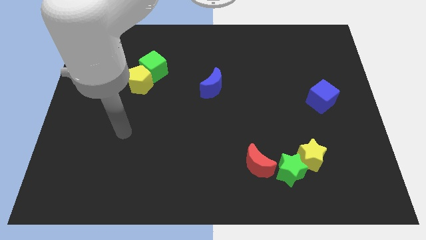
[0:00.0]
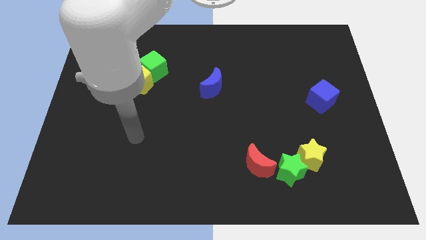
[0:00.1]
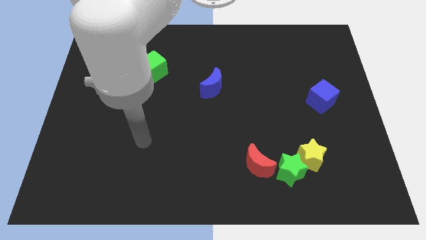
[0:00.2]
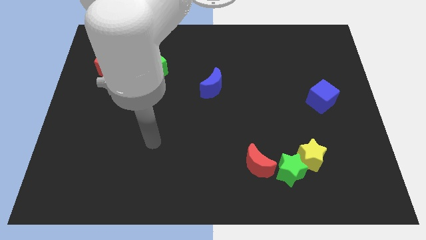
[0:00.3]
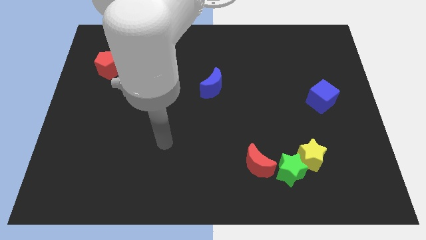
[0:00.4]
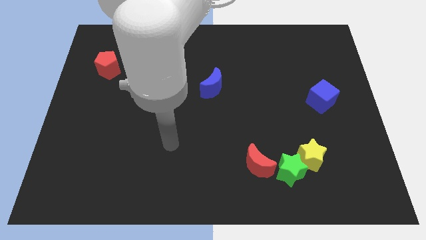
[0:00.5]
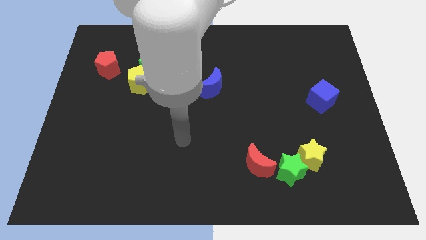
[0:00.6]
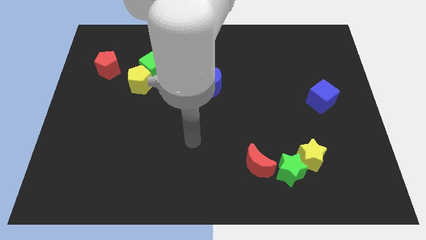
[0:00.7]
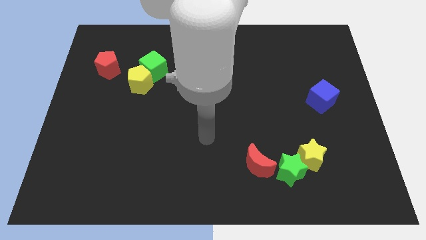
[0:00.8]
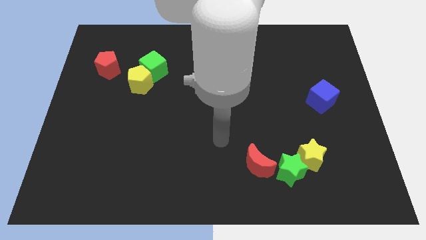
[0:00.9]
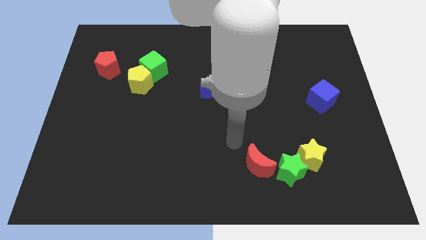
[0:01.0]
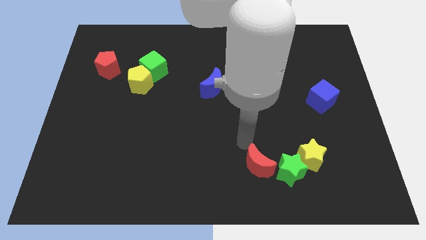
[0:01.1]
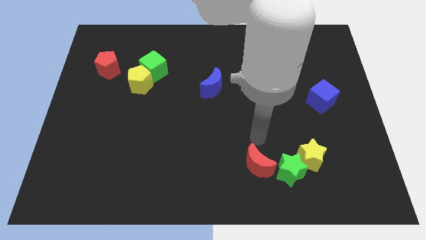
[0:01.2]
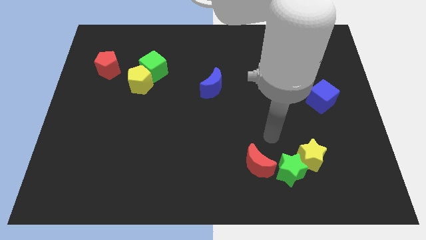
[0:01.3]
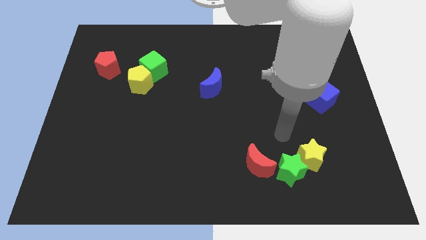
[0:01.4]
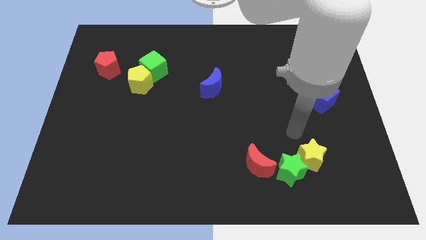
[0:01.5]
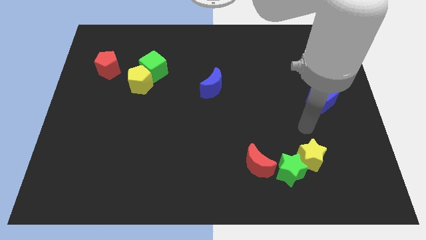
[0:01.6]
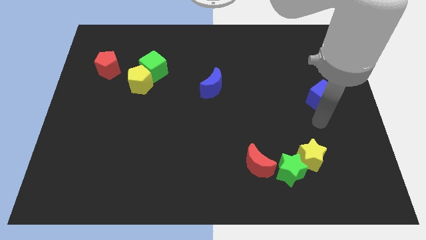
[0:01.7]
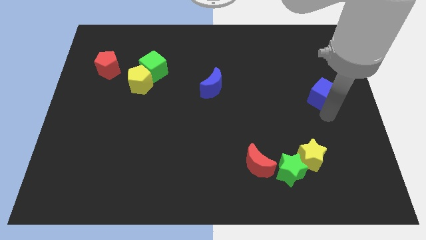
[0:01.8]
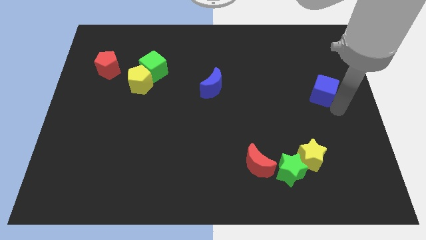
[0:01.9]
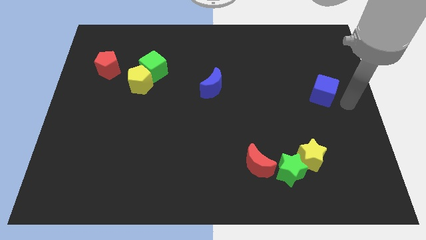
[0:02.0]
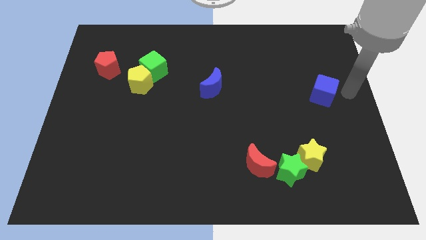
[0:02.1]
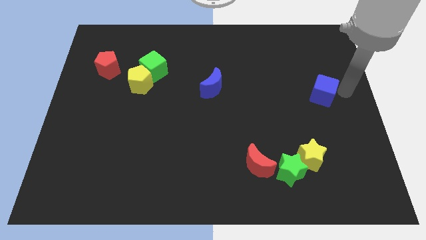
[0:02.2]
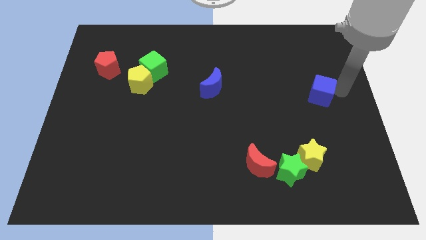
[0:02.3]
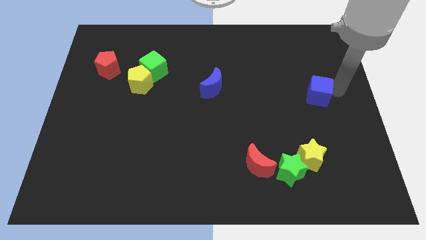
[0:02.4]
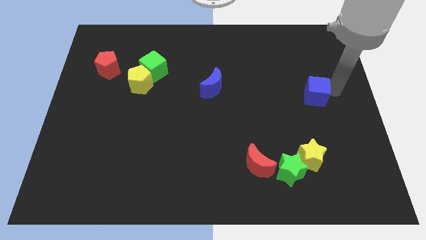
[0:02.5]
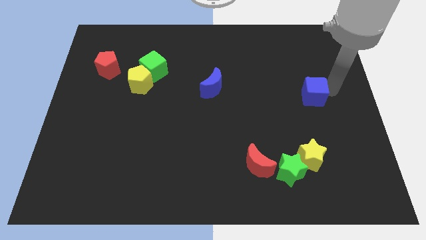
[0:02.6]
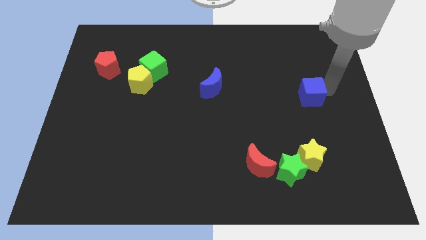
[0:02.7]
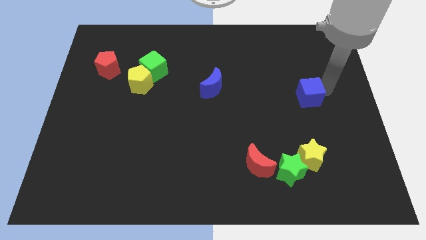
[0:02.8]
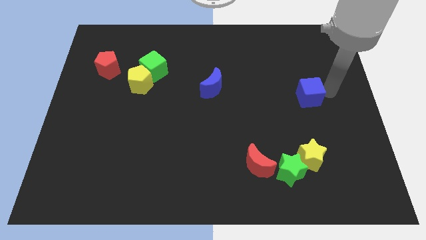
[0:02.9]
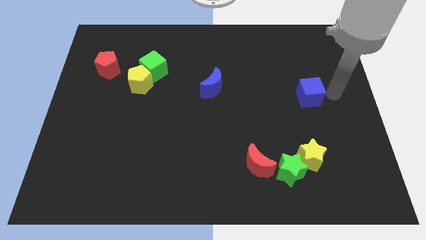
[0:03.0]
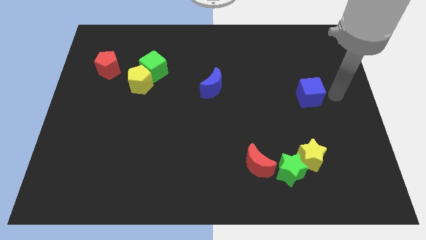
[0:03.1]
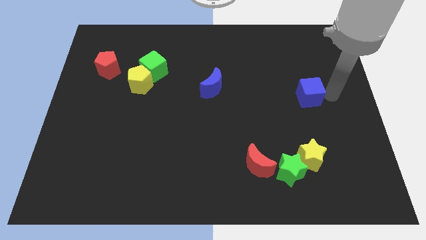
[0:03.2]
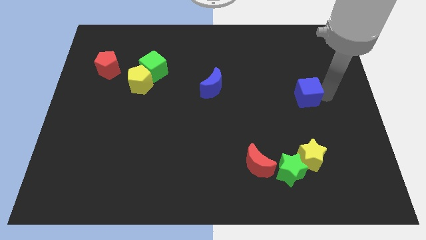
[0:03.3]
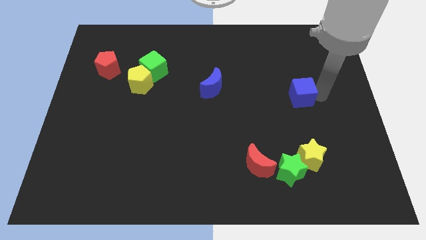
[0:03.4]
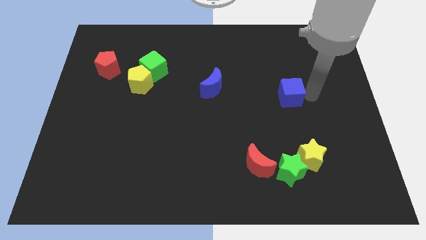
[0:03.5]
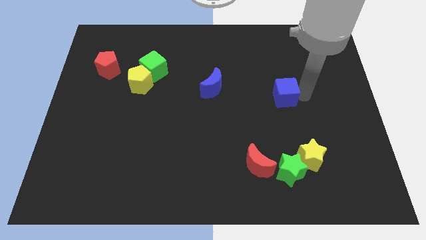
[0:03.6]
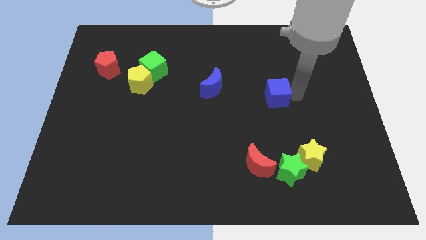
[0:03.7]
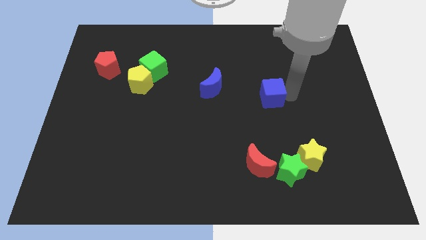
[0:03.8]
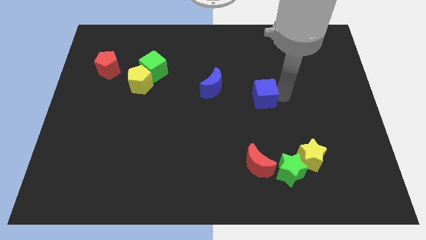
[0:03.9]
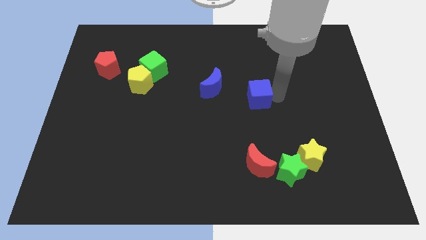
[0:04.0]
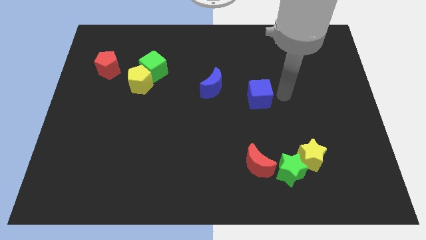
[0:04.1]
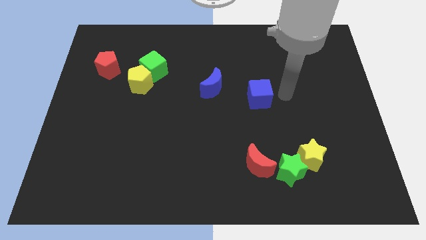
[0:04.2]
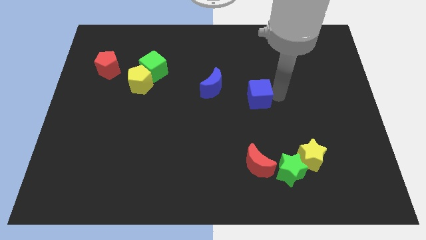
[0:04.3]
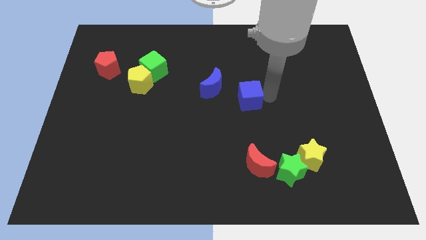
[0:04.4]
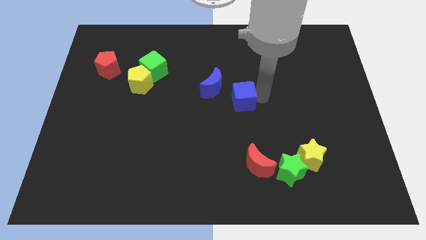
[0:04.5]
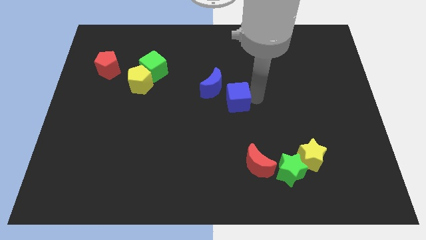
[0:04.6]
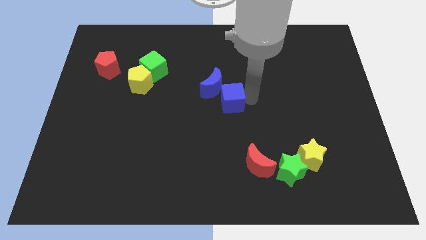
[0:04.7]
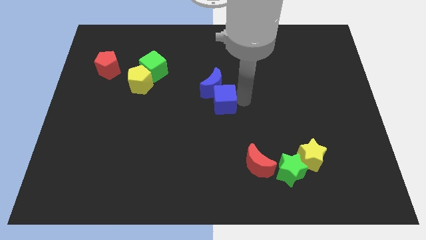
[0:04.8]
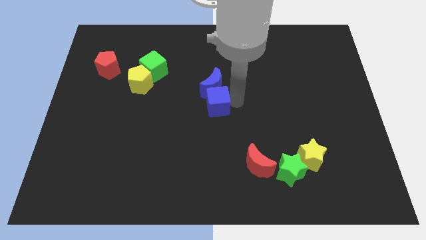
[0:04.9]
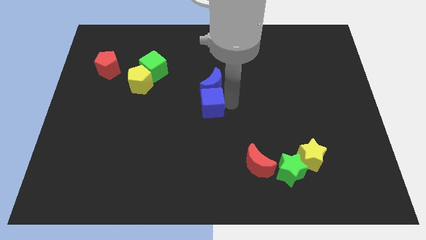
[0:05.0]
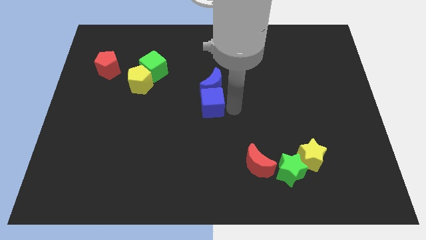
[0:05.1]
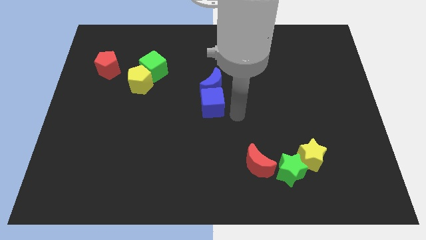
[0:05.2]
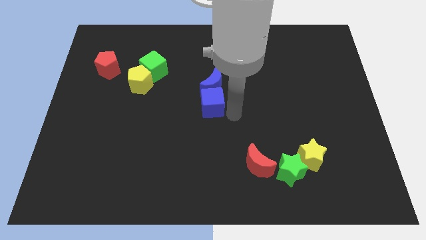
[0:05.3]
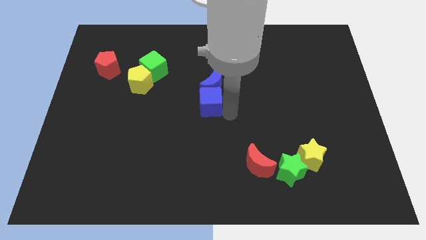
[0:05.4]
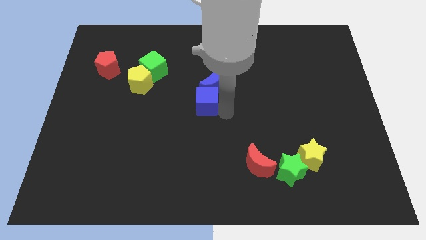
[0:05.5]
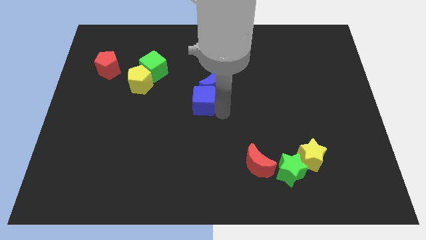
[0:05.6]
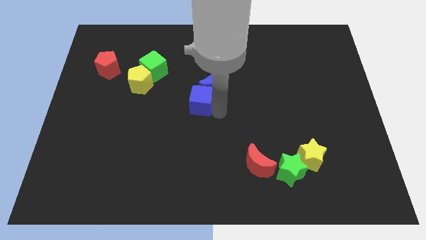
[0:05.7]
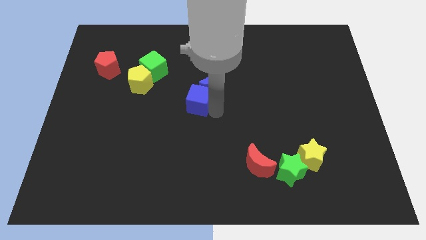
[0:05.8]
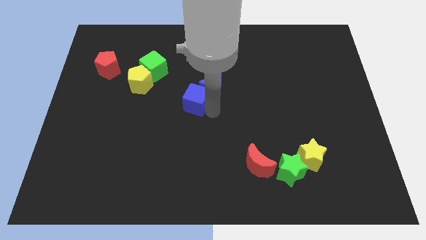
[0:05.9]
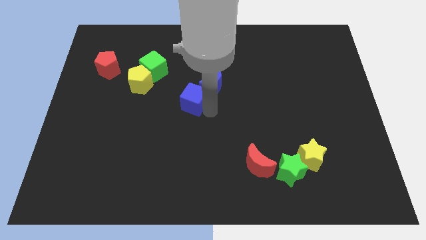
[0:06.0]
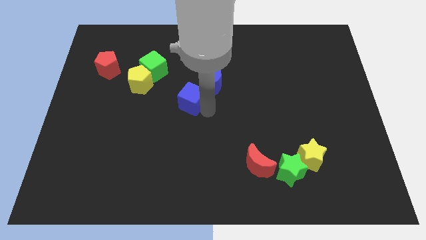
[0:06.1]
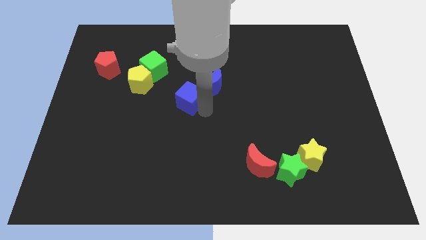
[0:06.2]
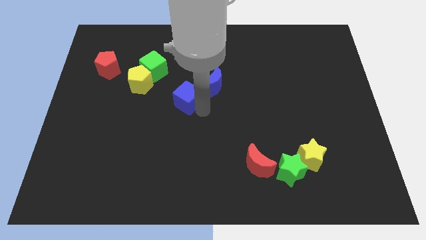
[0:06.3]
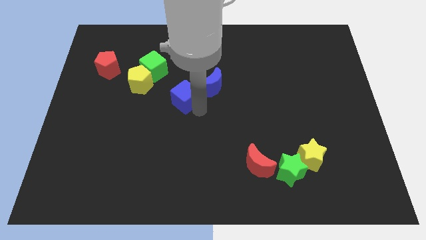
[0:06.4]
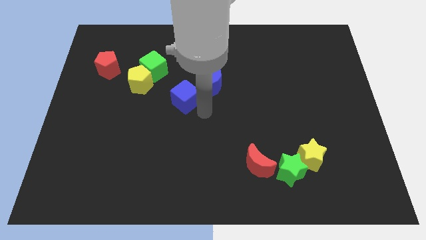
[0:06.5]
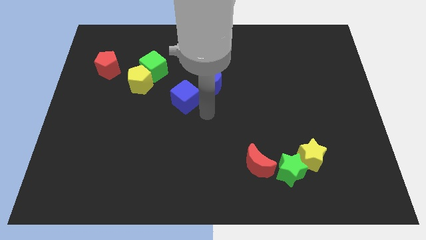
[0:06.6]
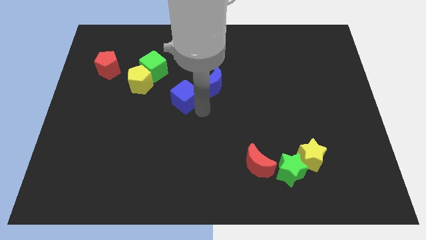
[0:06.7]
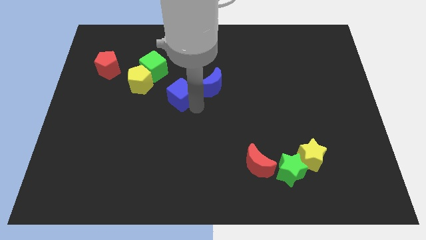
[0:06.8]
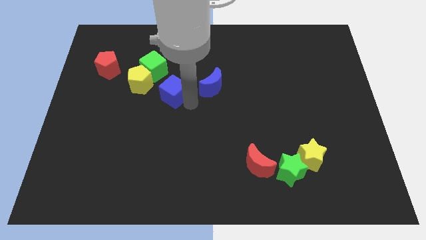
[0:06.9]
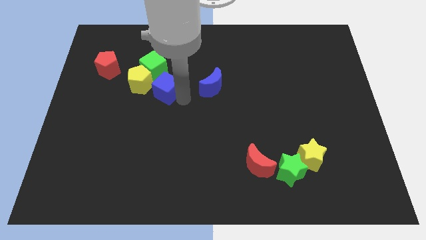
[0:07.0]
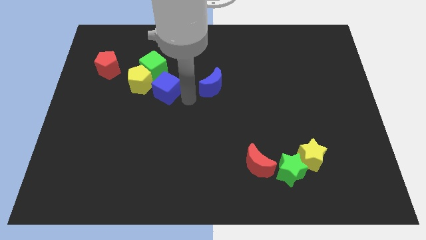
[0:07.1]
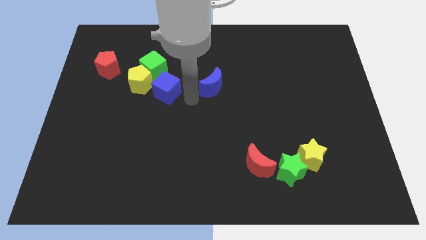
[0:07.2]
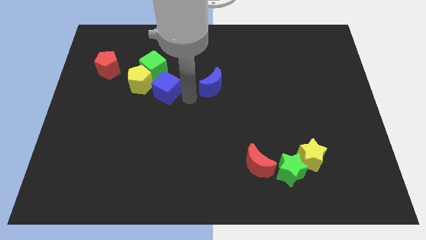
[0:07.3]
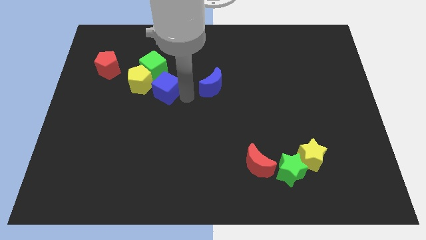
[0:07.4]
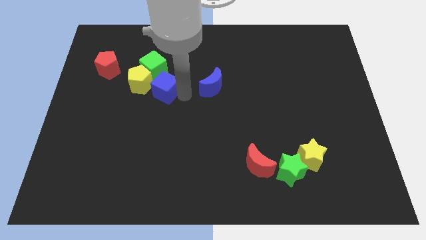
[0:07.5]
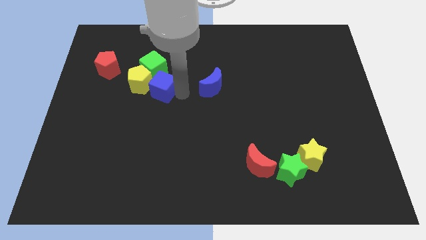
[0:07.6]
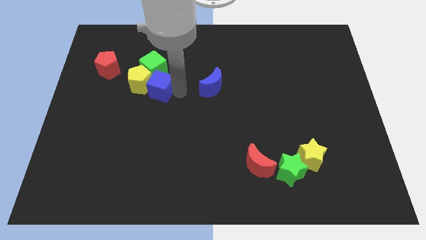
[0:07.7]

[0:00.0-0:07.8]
push the blue cube next to the yellow pentagon

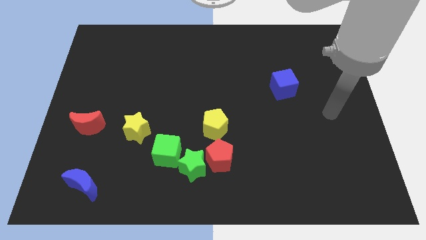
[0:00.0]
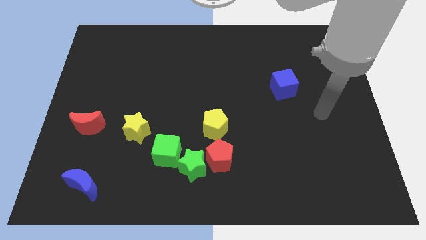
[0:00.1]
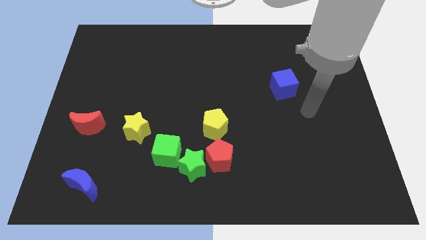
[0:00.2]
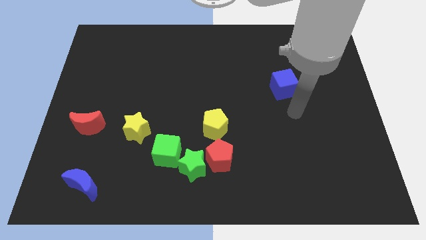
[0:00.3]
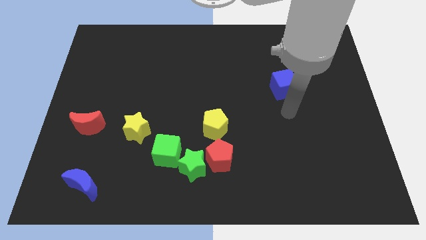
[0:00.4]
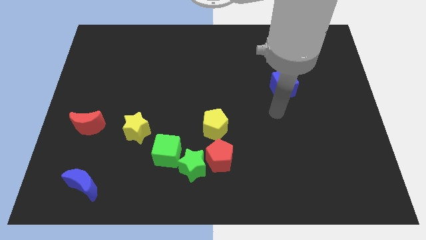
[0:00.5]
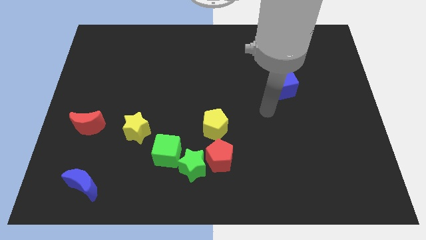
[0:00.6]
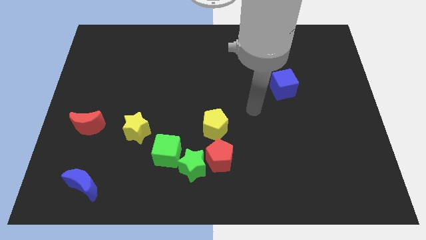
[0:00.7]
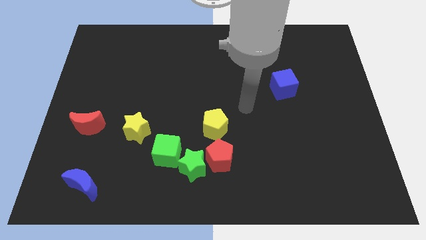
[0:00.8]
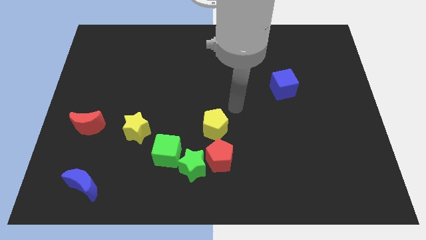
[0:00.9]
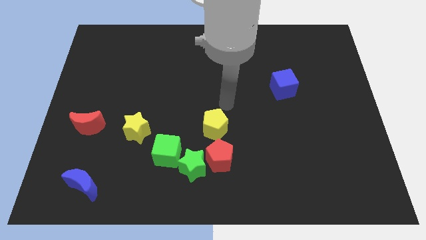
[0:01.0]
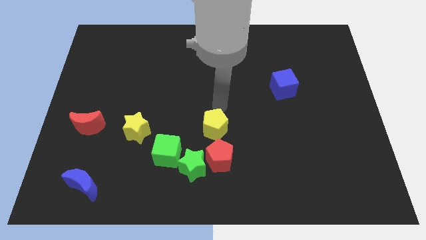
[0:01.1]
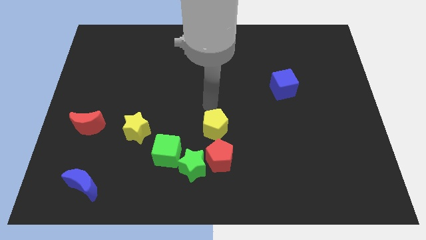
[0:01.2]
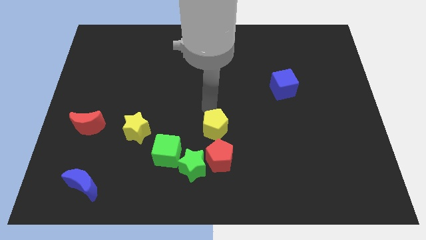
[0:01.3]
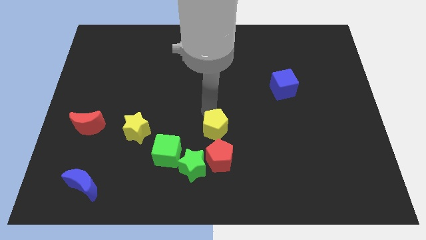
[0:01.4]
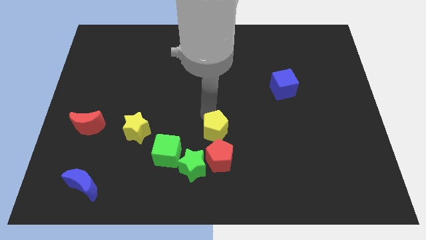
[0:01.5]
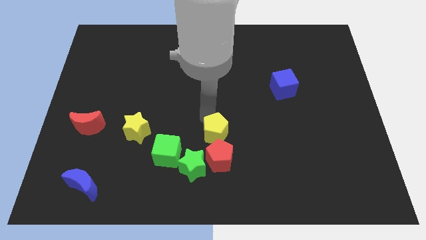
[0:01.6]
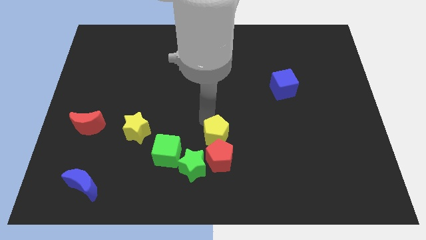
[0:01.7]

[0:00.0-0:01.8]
slide the yellow pentagon next to the red pentagon
